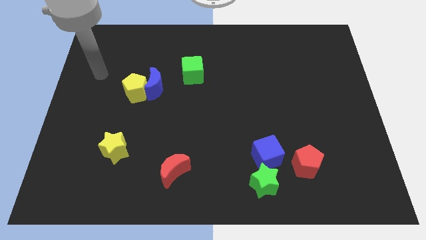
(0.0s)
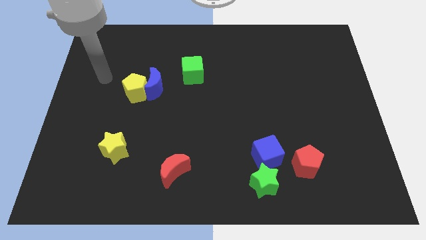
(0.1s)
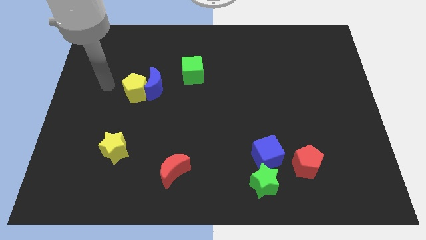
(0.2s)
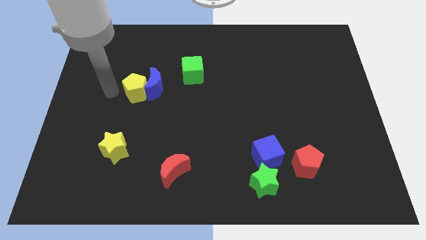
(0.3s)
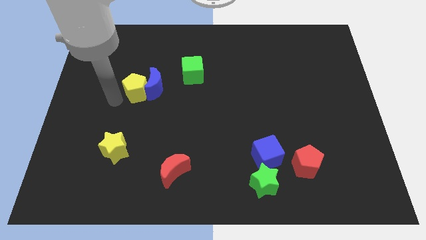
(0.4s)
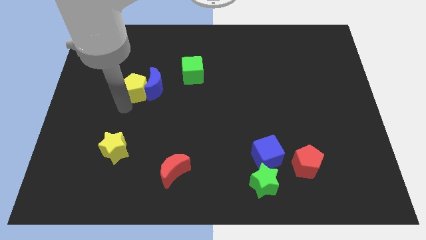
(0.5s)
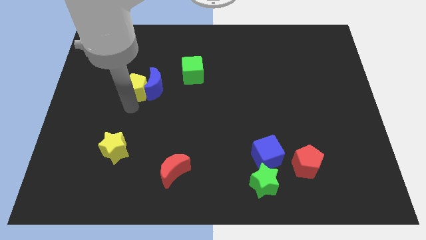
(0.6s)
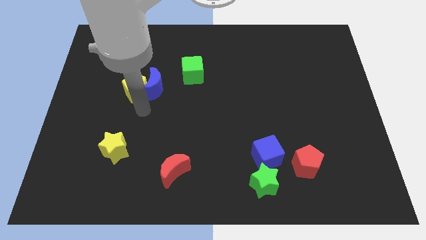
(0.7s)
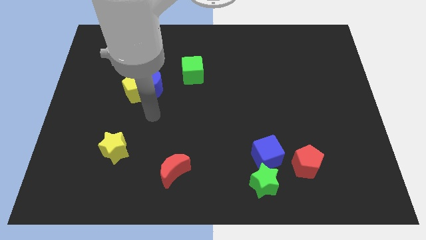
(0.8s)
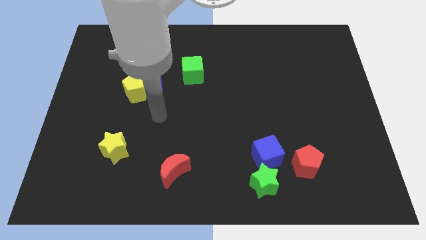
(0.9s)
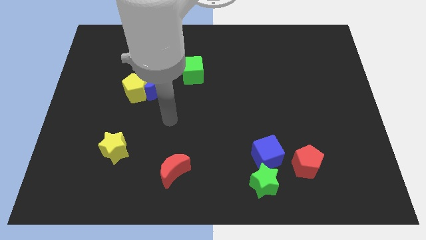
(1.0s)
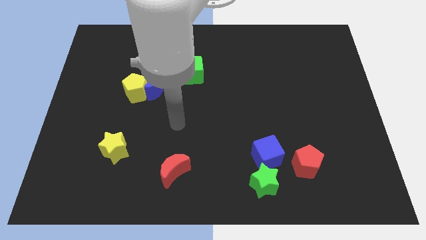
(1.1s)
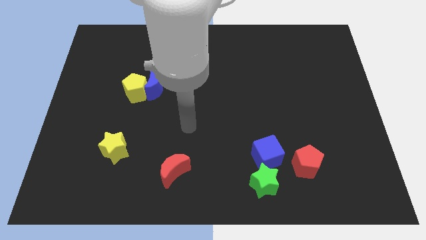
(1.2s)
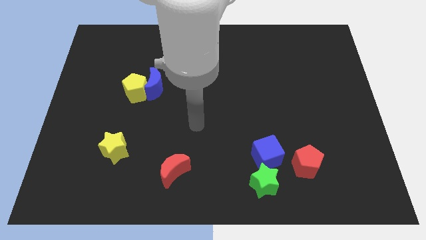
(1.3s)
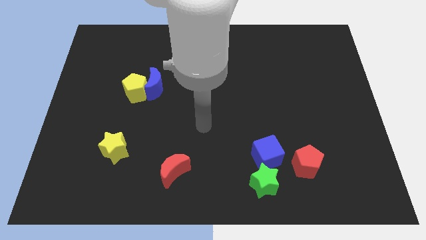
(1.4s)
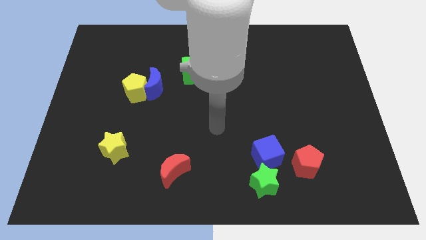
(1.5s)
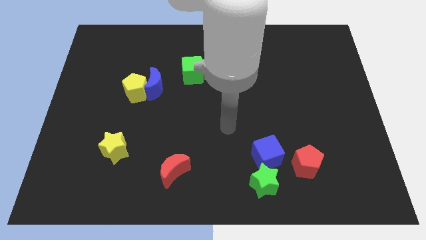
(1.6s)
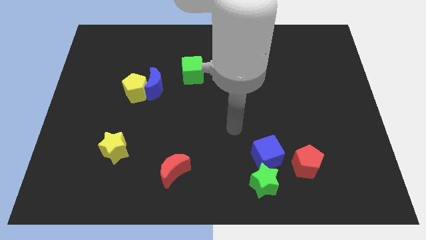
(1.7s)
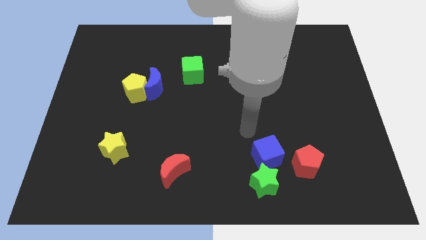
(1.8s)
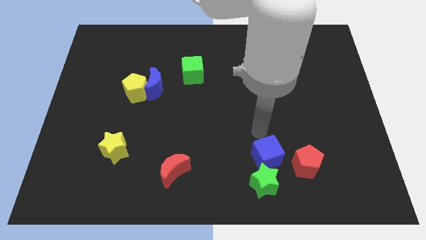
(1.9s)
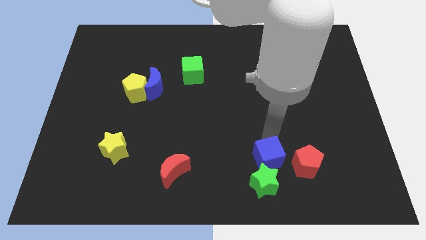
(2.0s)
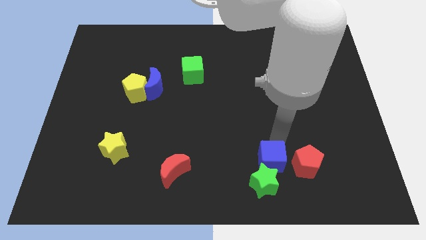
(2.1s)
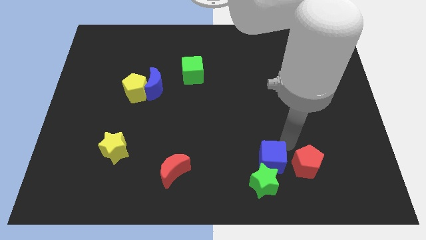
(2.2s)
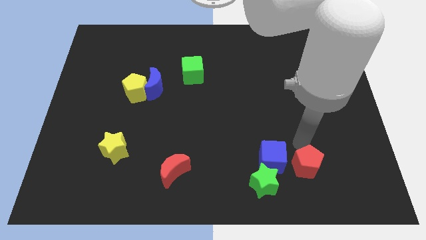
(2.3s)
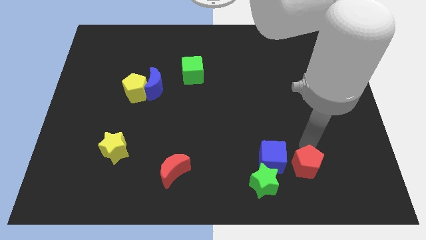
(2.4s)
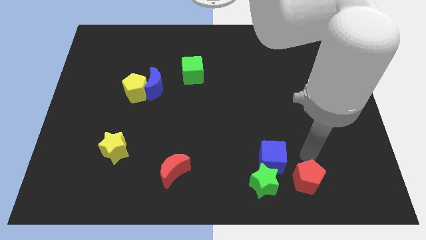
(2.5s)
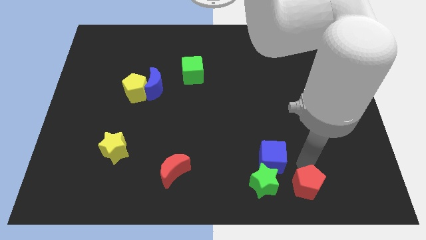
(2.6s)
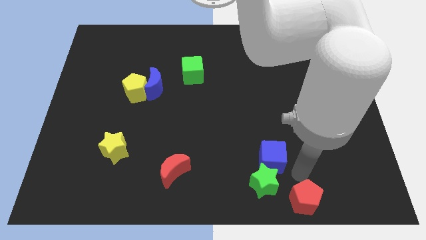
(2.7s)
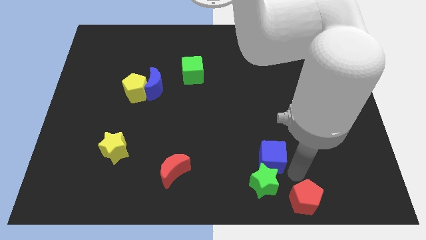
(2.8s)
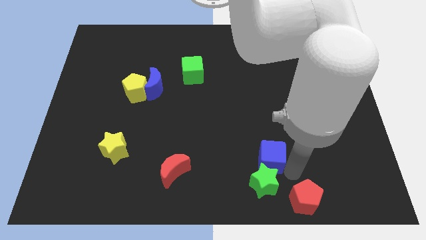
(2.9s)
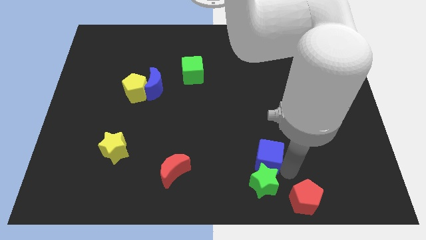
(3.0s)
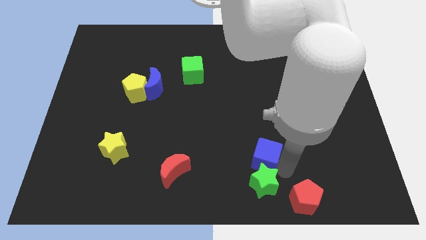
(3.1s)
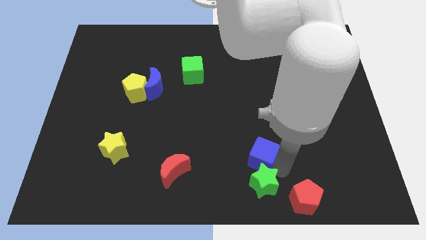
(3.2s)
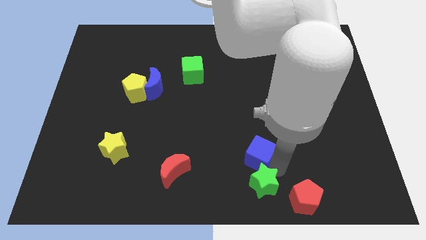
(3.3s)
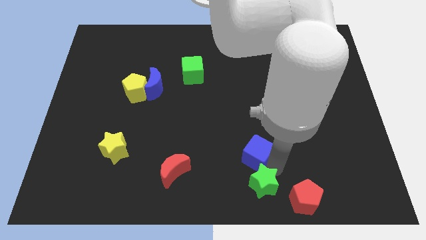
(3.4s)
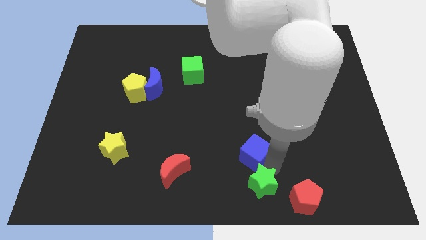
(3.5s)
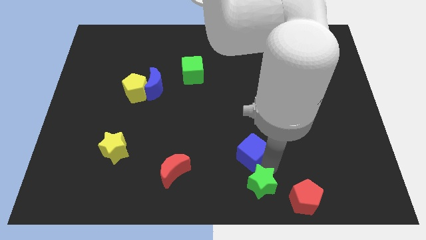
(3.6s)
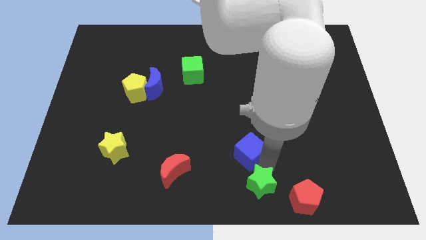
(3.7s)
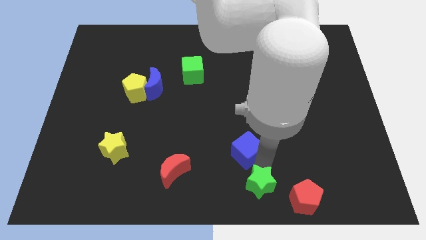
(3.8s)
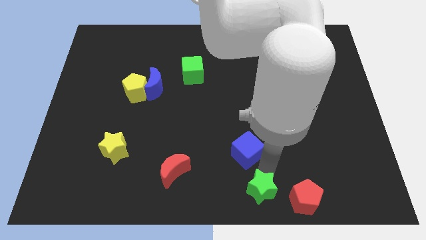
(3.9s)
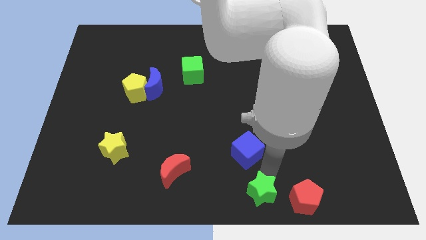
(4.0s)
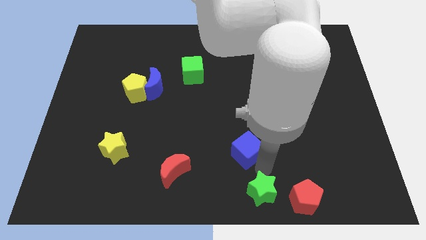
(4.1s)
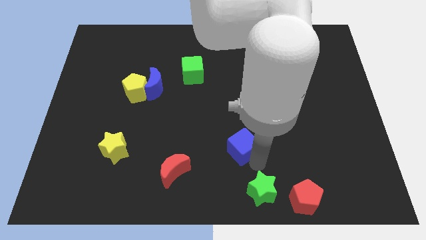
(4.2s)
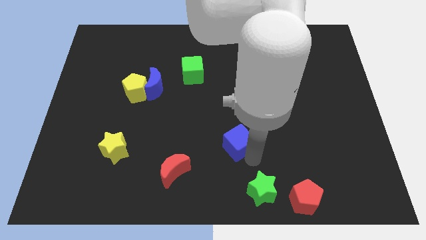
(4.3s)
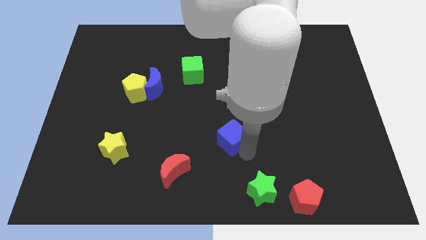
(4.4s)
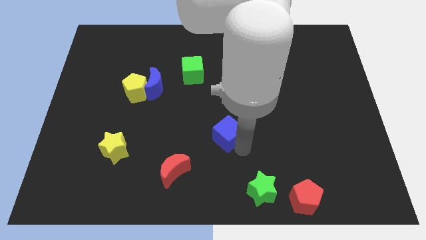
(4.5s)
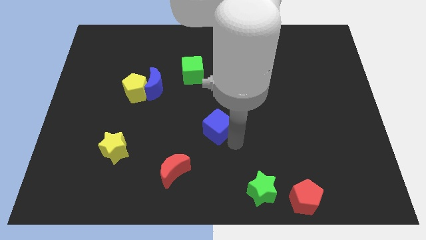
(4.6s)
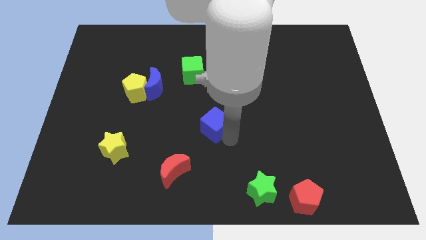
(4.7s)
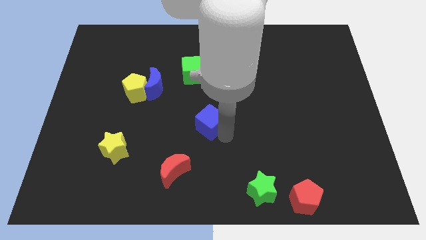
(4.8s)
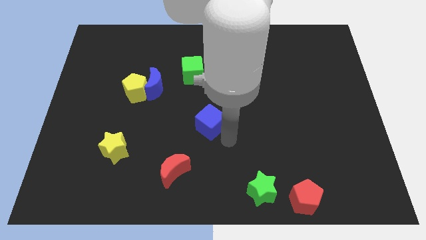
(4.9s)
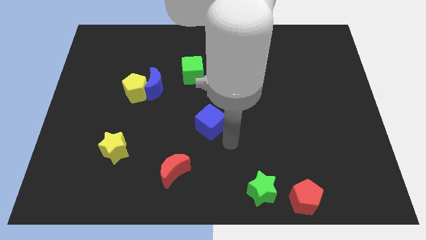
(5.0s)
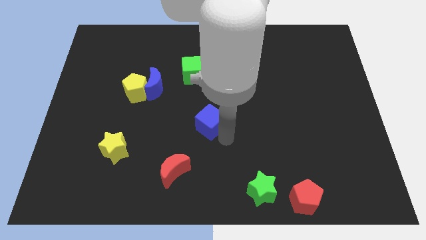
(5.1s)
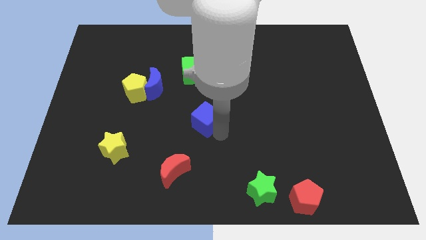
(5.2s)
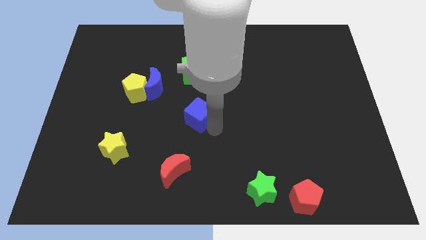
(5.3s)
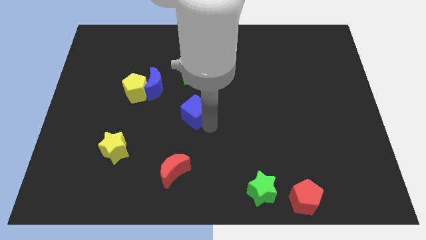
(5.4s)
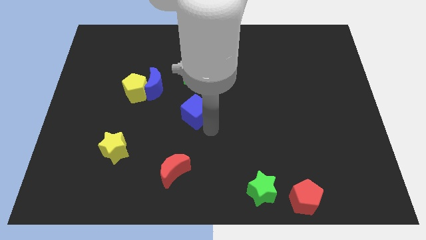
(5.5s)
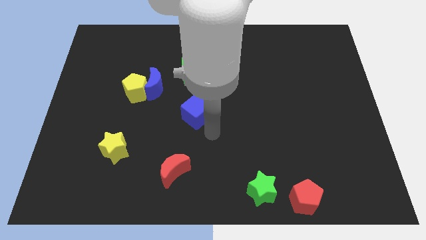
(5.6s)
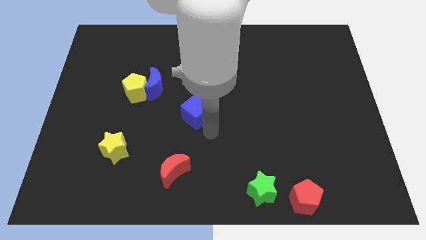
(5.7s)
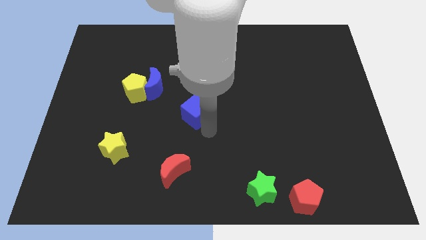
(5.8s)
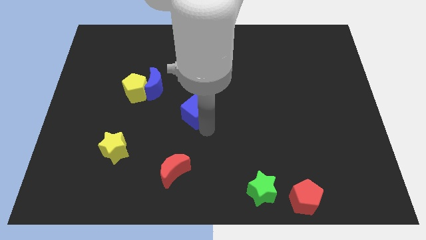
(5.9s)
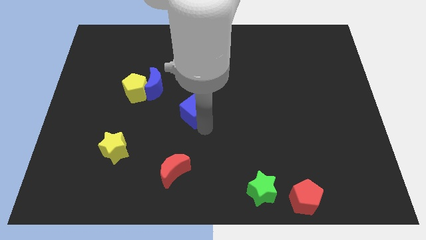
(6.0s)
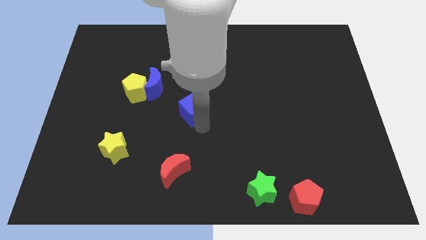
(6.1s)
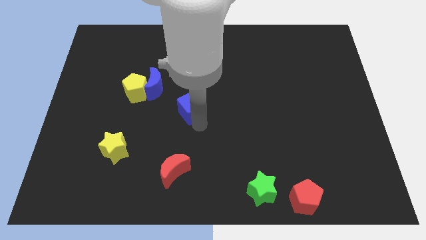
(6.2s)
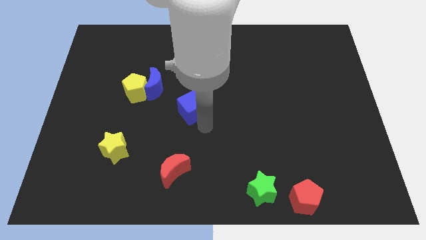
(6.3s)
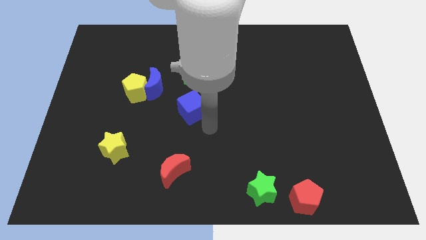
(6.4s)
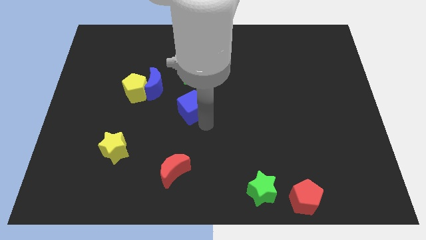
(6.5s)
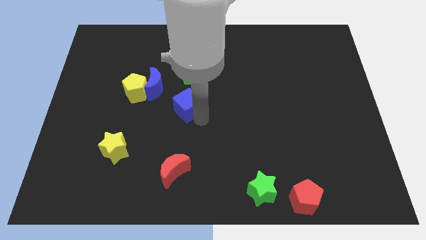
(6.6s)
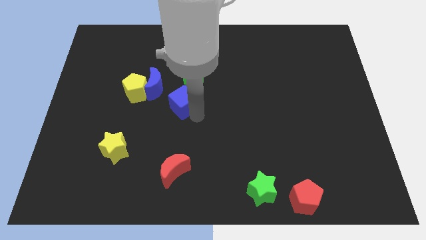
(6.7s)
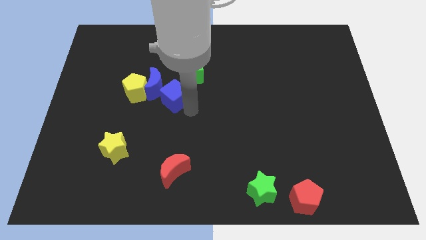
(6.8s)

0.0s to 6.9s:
put the blue cube to the blue moon
